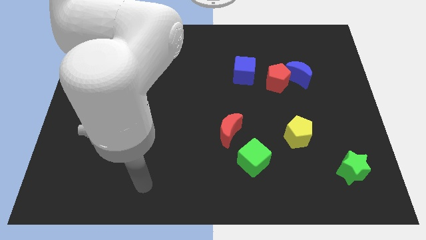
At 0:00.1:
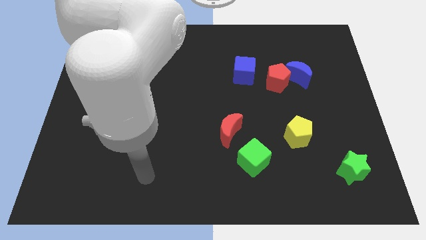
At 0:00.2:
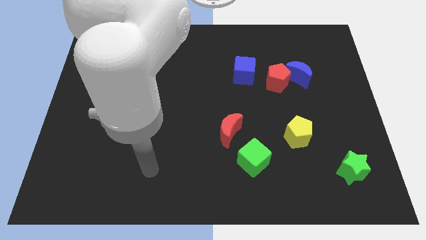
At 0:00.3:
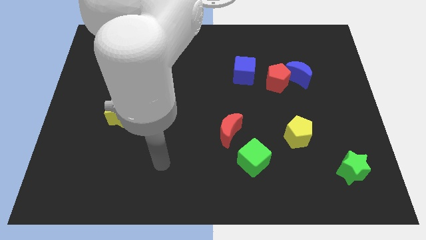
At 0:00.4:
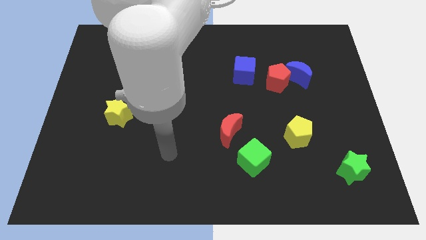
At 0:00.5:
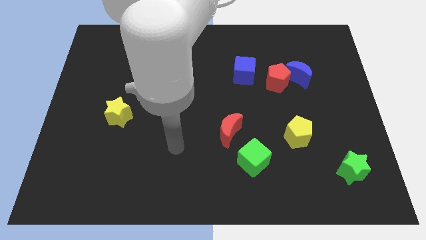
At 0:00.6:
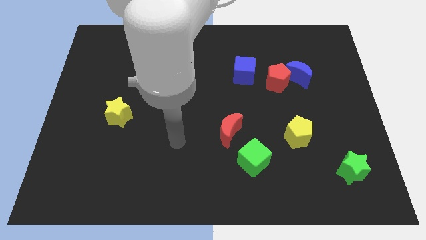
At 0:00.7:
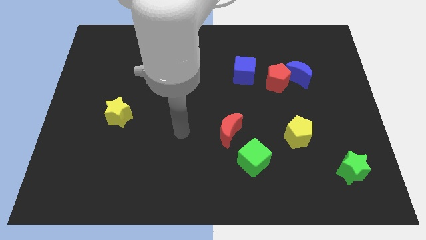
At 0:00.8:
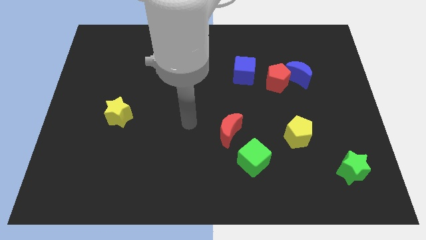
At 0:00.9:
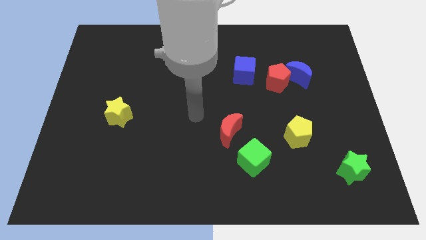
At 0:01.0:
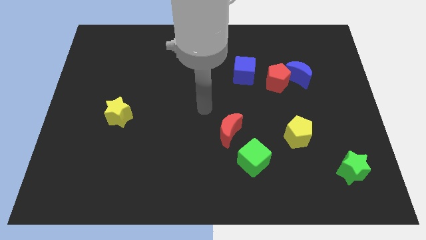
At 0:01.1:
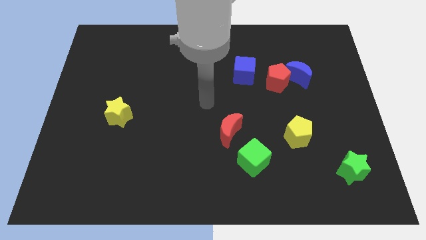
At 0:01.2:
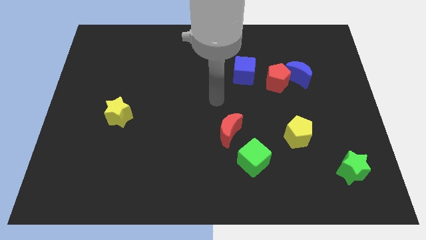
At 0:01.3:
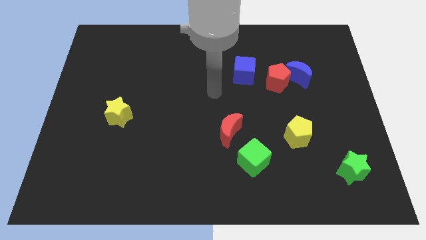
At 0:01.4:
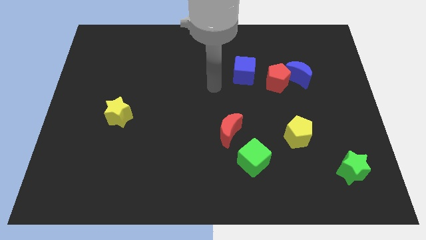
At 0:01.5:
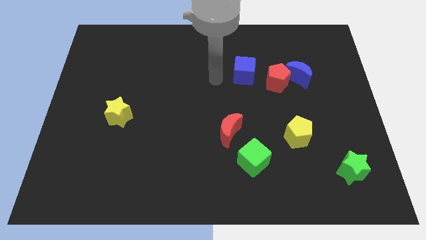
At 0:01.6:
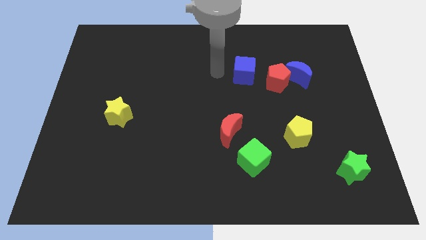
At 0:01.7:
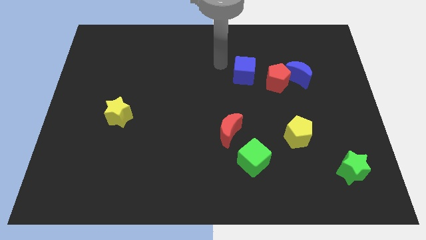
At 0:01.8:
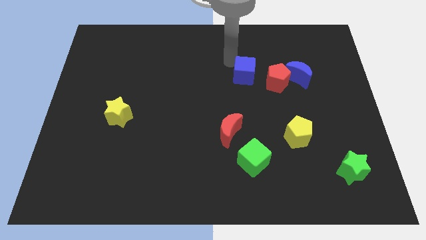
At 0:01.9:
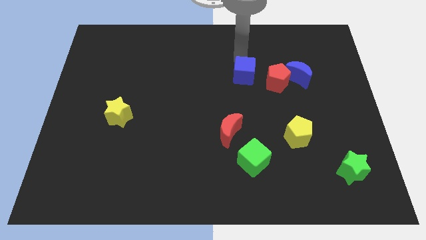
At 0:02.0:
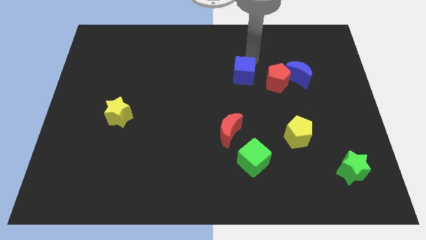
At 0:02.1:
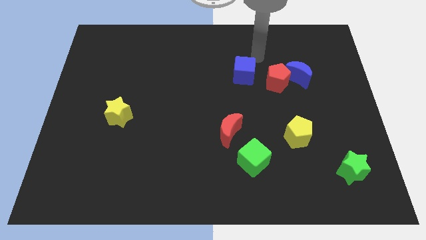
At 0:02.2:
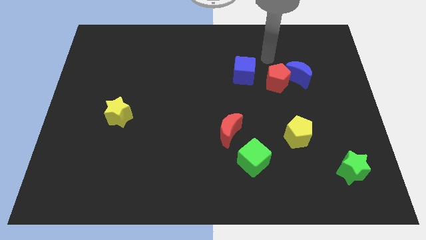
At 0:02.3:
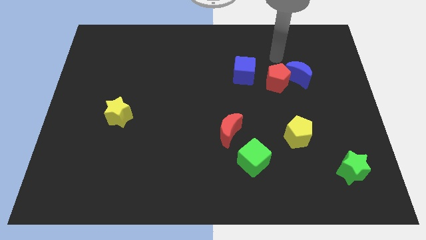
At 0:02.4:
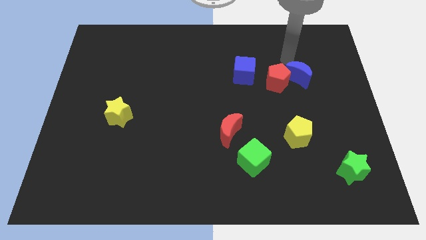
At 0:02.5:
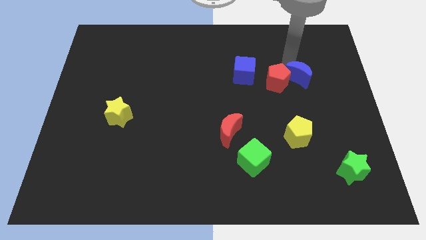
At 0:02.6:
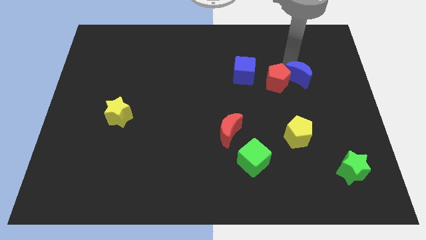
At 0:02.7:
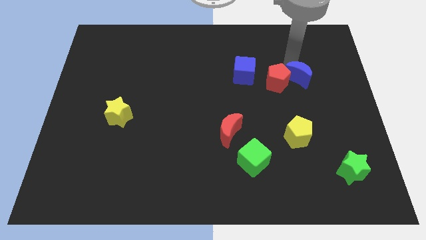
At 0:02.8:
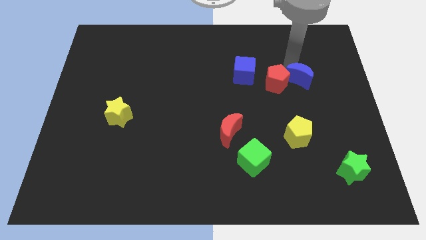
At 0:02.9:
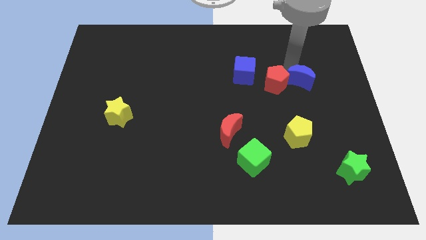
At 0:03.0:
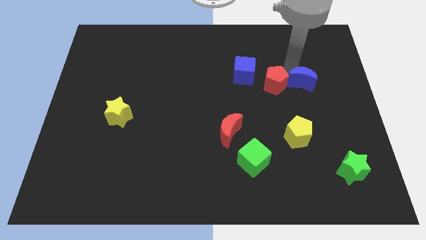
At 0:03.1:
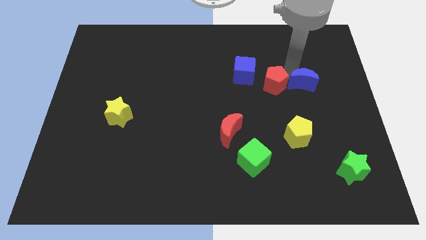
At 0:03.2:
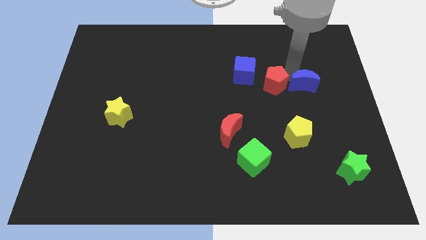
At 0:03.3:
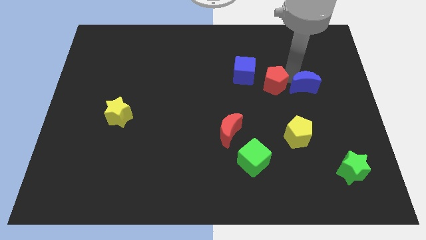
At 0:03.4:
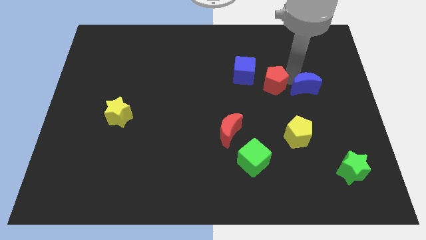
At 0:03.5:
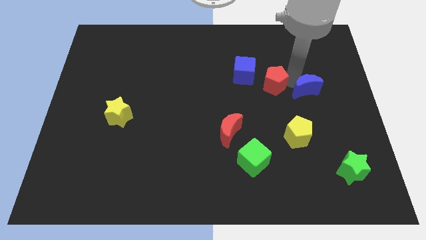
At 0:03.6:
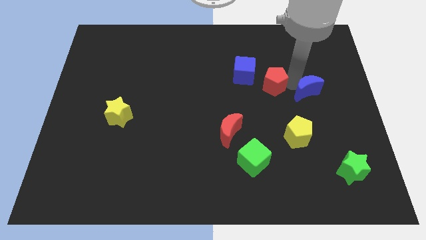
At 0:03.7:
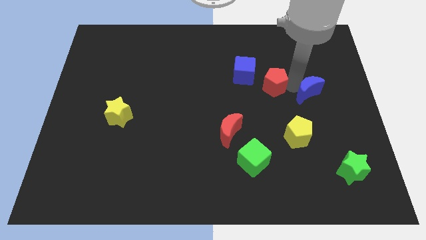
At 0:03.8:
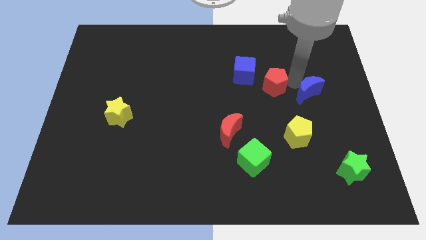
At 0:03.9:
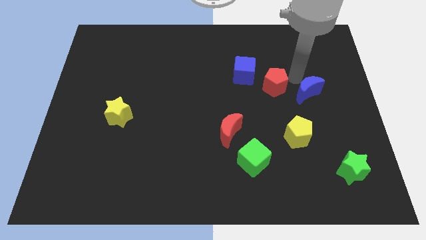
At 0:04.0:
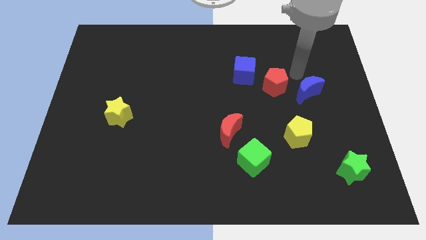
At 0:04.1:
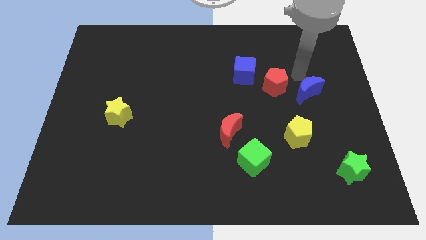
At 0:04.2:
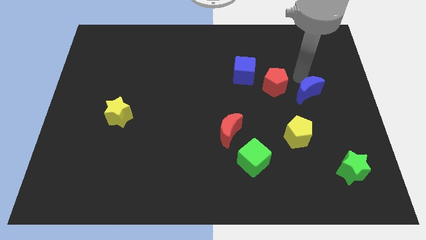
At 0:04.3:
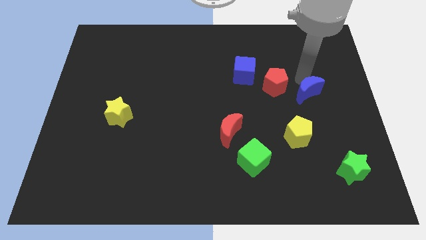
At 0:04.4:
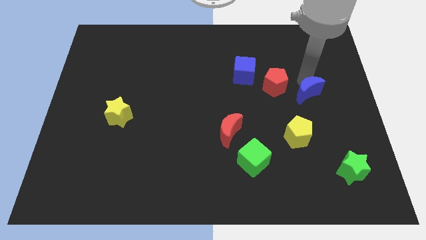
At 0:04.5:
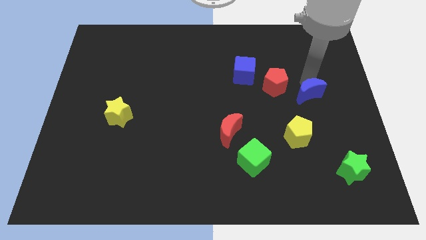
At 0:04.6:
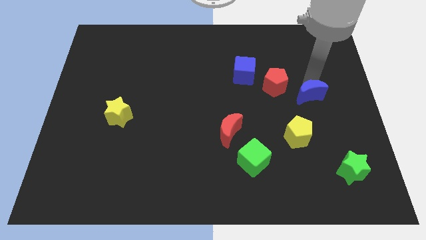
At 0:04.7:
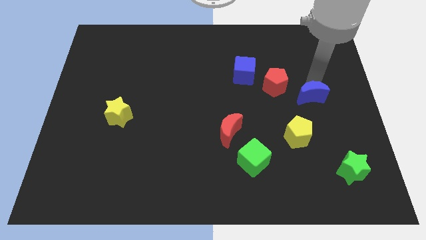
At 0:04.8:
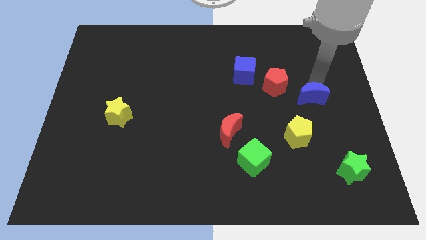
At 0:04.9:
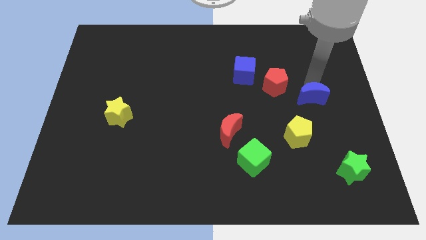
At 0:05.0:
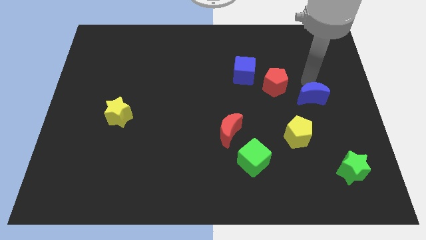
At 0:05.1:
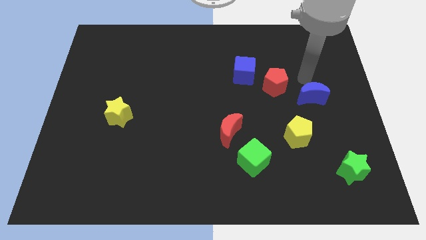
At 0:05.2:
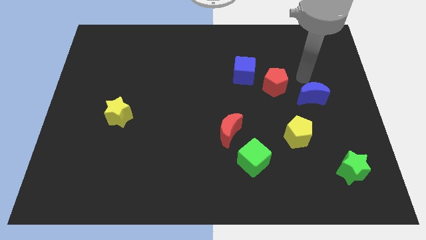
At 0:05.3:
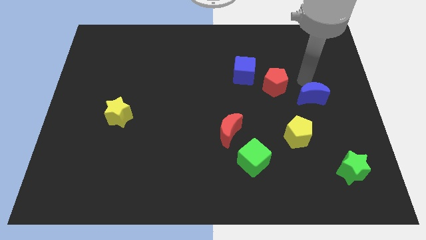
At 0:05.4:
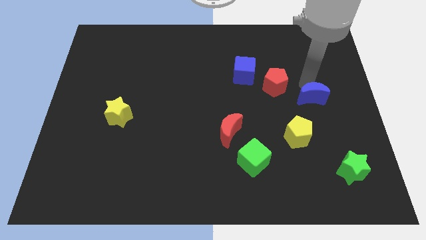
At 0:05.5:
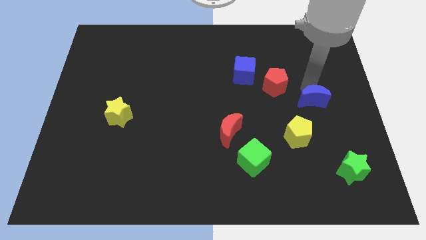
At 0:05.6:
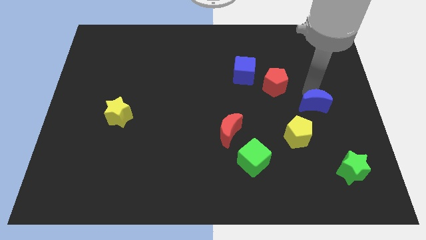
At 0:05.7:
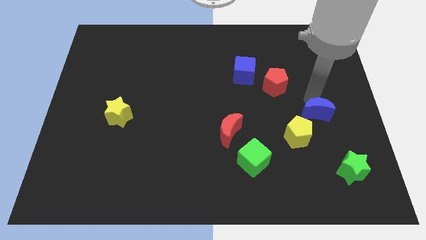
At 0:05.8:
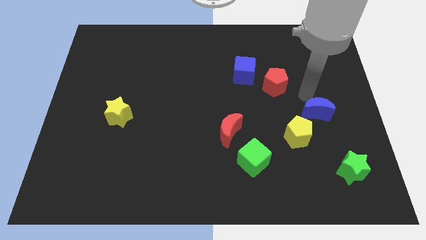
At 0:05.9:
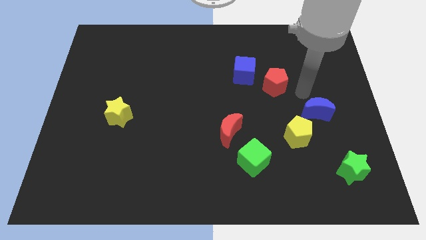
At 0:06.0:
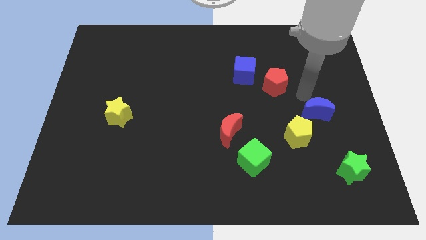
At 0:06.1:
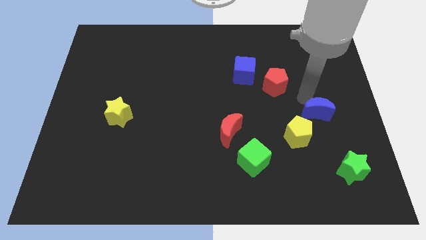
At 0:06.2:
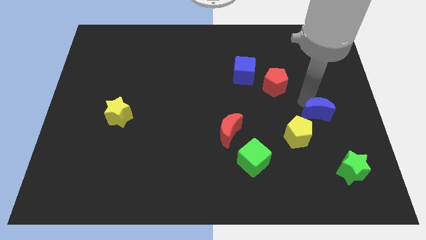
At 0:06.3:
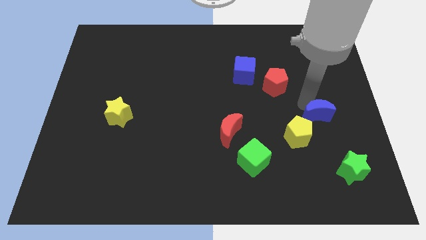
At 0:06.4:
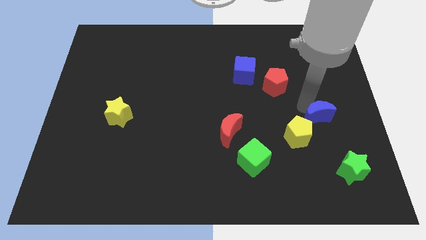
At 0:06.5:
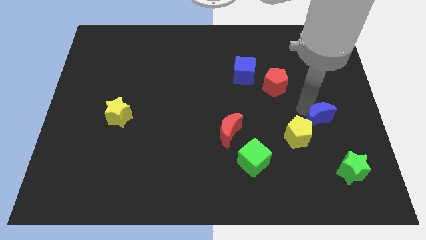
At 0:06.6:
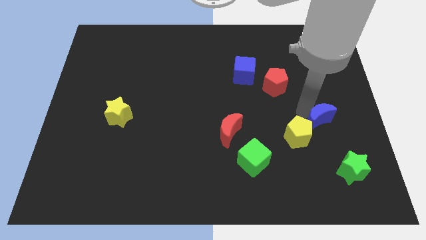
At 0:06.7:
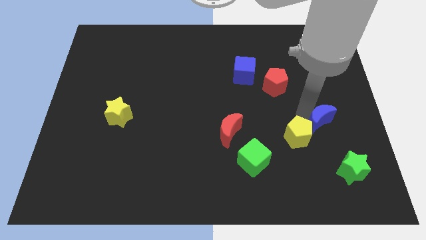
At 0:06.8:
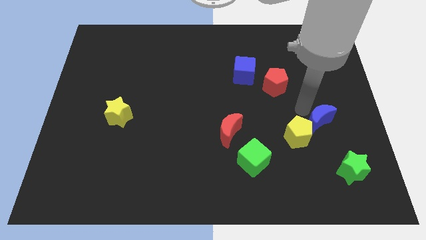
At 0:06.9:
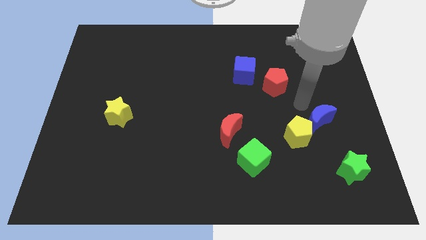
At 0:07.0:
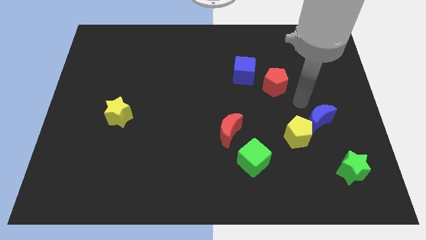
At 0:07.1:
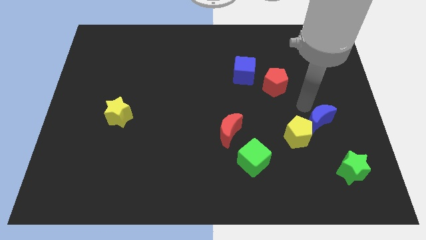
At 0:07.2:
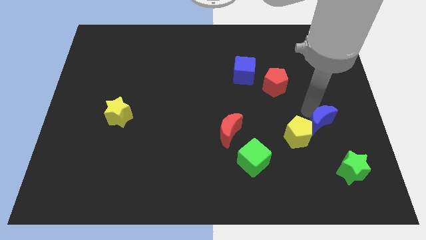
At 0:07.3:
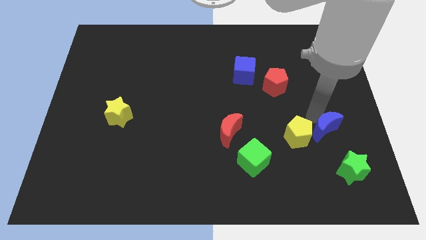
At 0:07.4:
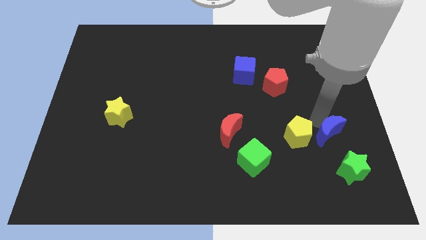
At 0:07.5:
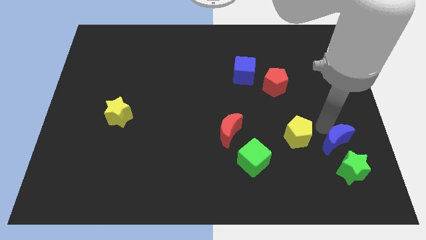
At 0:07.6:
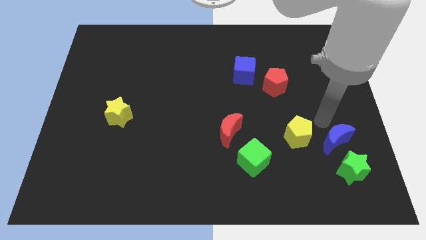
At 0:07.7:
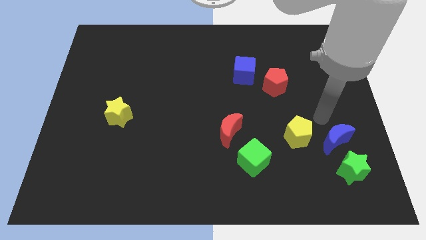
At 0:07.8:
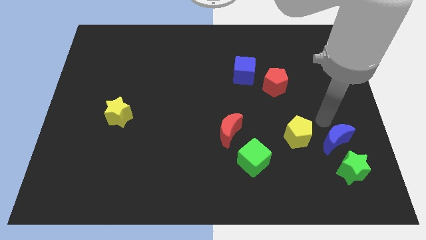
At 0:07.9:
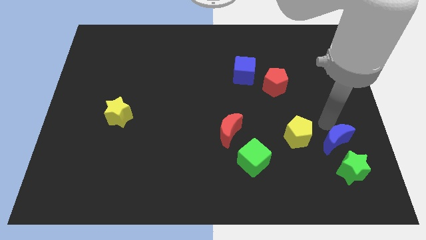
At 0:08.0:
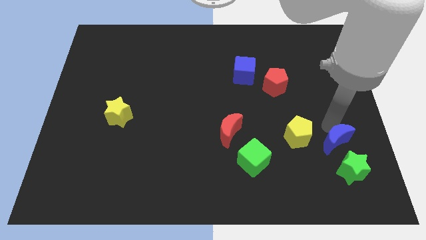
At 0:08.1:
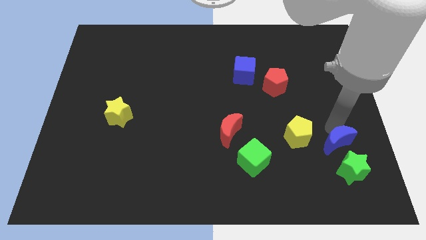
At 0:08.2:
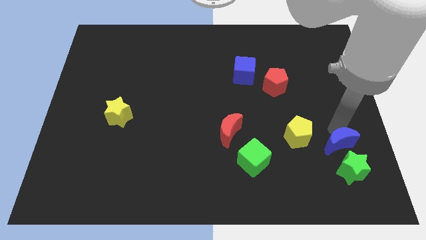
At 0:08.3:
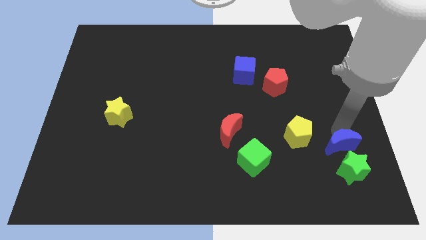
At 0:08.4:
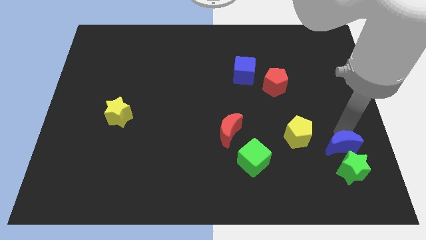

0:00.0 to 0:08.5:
push the blue moon to the green star
